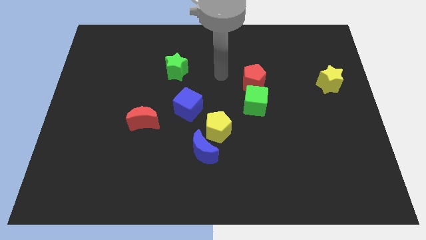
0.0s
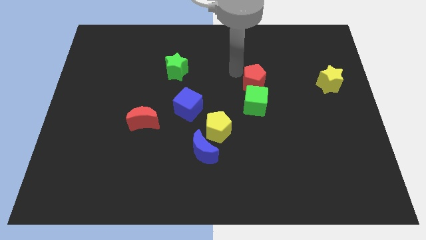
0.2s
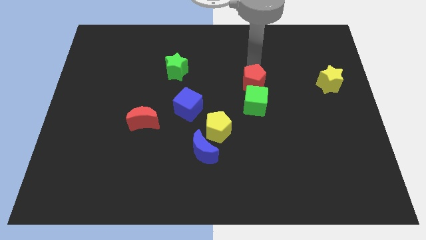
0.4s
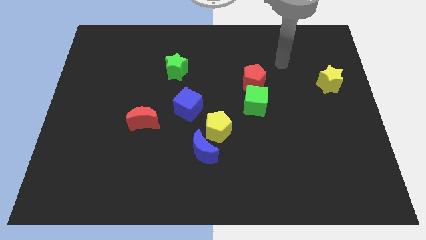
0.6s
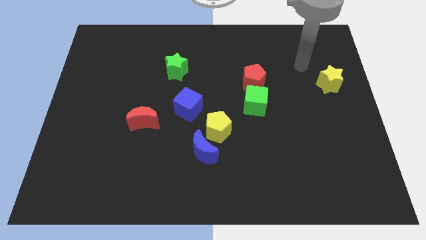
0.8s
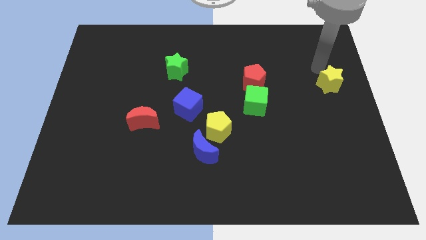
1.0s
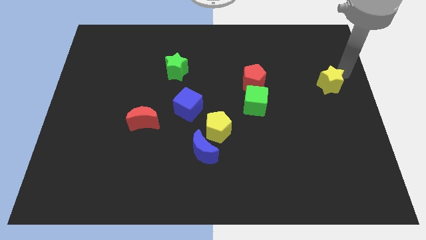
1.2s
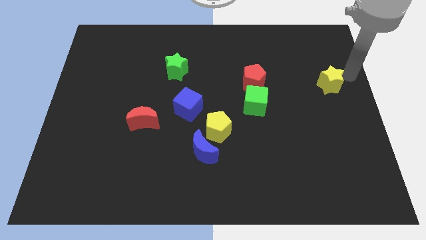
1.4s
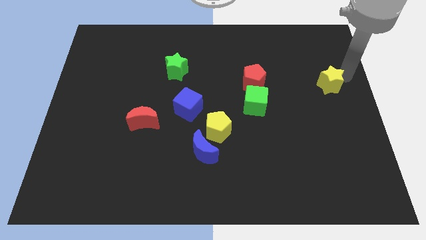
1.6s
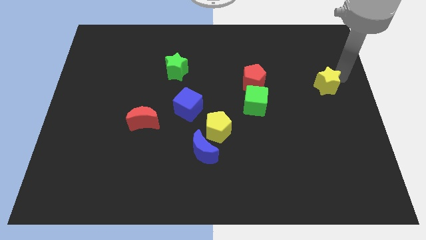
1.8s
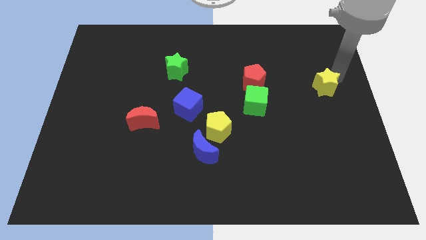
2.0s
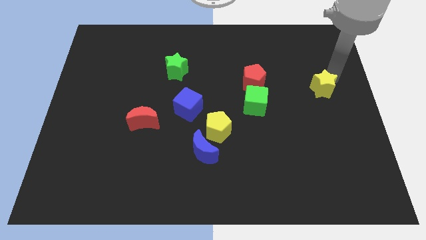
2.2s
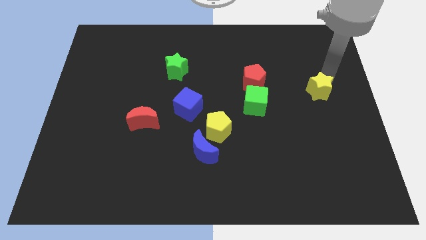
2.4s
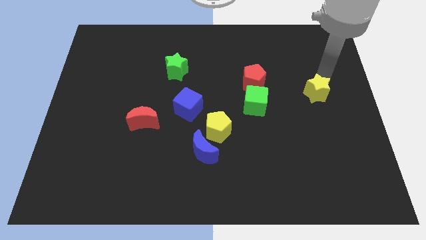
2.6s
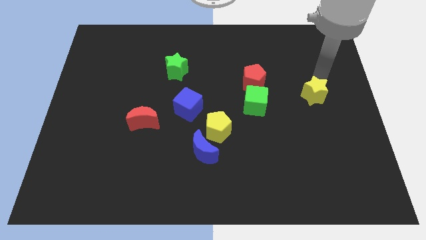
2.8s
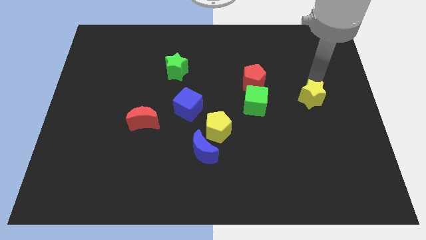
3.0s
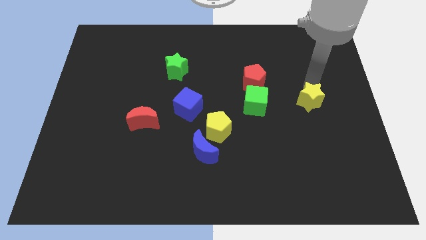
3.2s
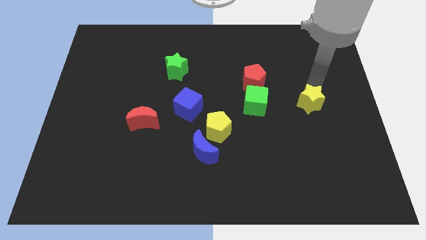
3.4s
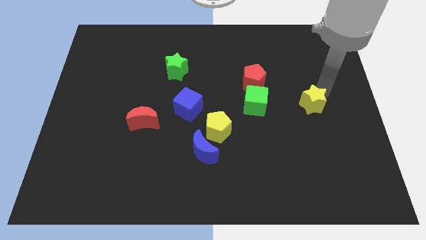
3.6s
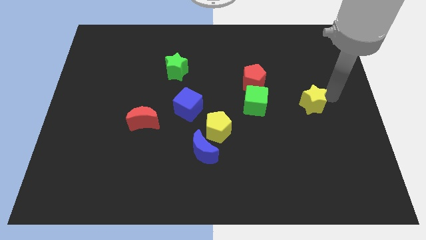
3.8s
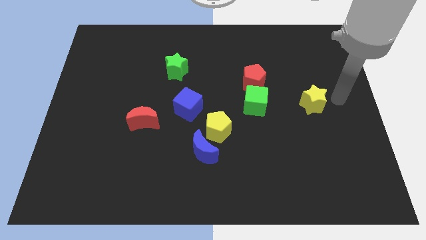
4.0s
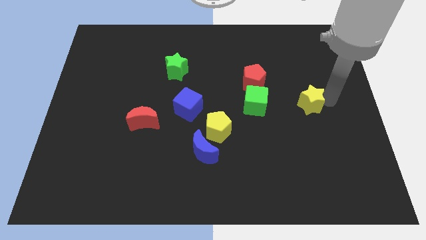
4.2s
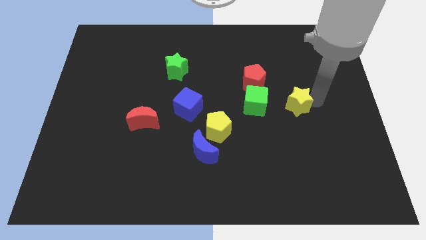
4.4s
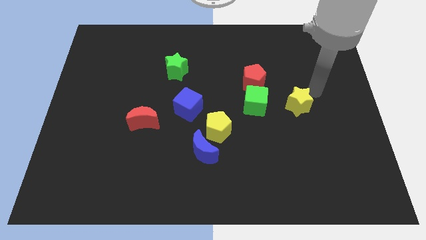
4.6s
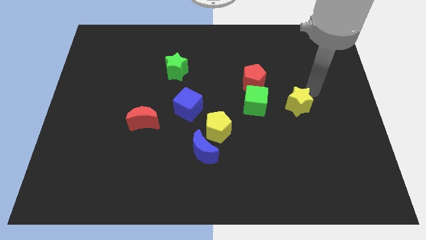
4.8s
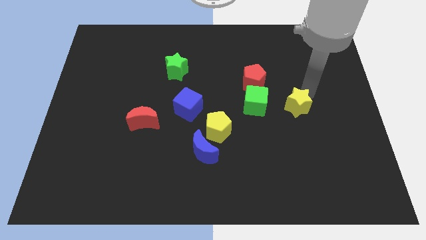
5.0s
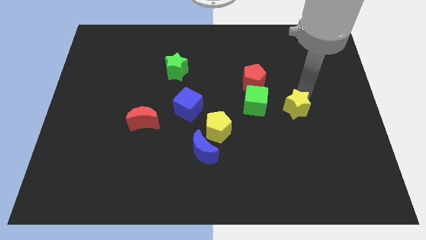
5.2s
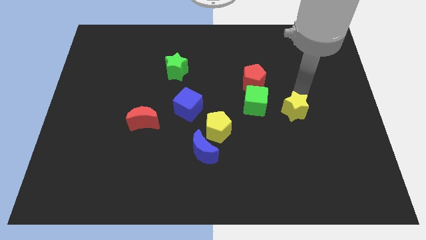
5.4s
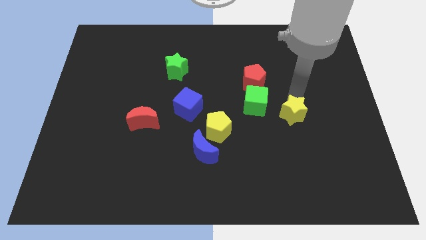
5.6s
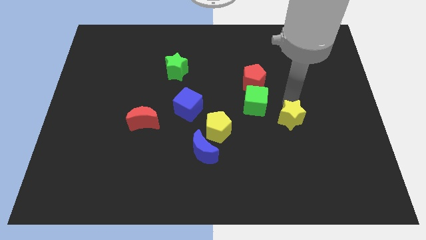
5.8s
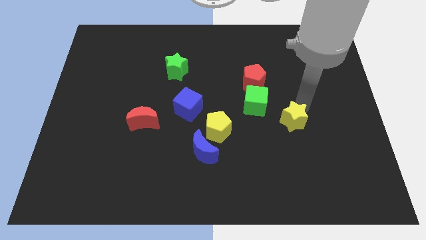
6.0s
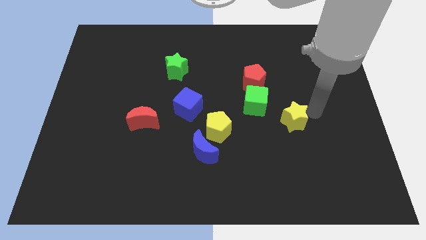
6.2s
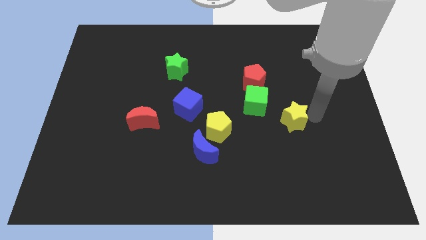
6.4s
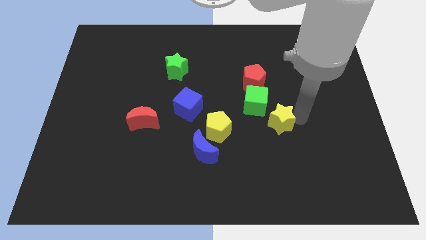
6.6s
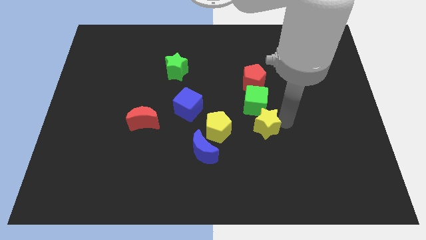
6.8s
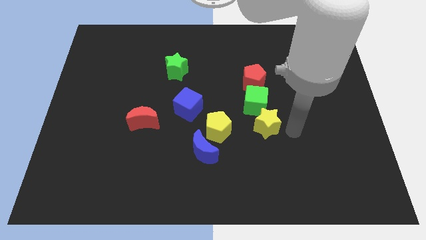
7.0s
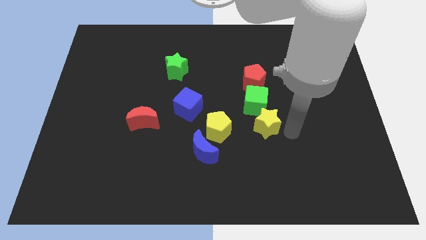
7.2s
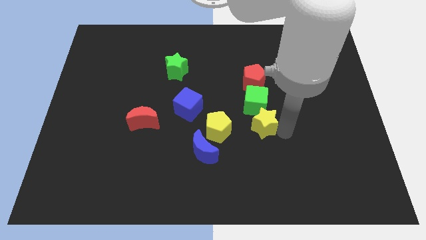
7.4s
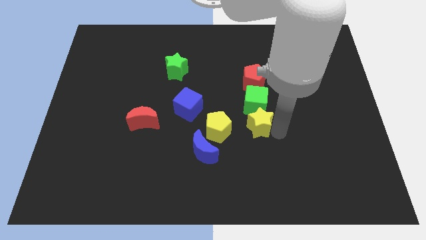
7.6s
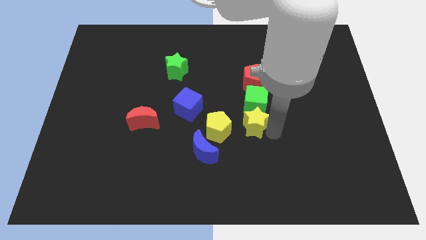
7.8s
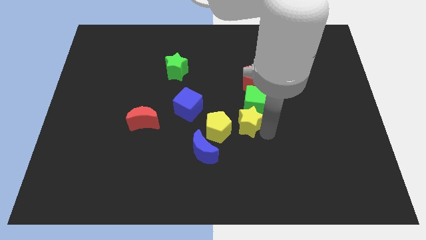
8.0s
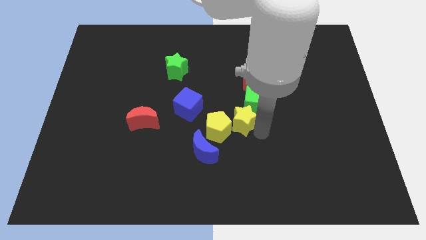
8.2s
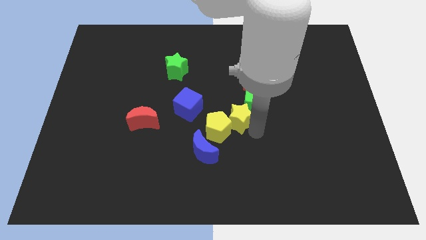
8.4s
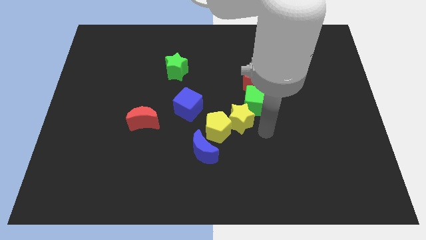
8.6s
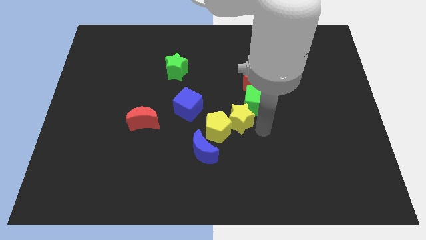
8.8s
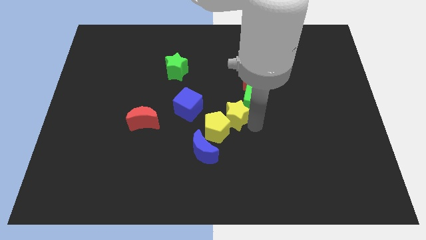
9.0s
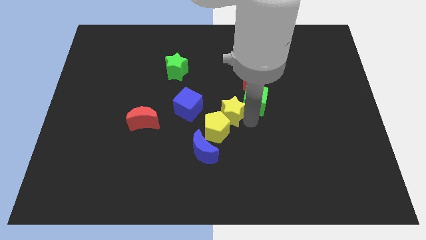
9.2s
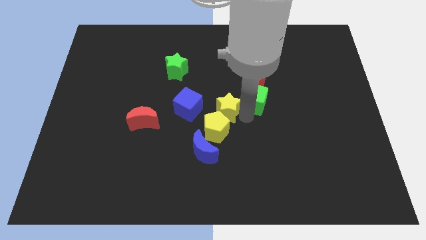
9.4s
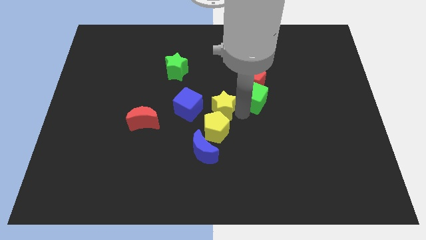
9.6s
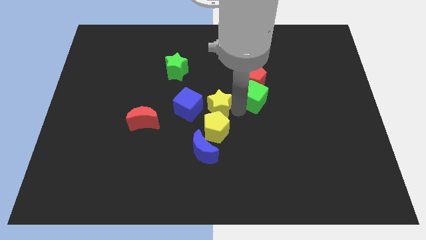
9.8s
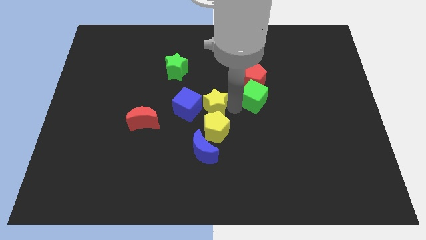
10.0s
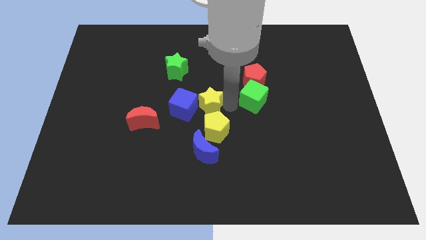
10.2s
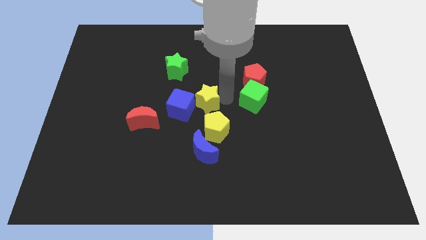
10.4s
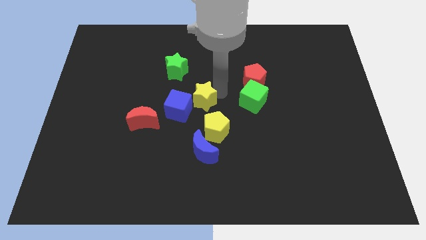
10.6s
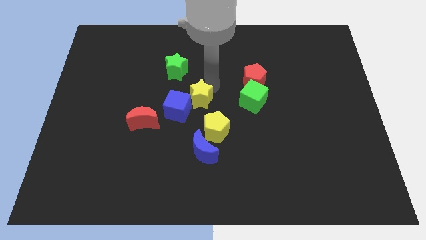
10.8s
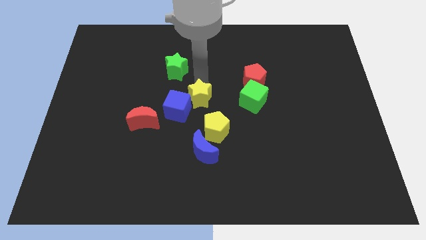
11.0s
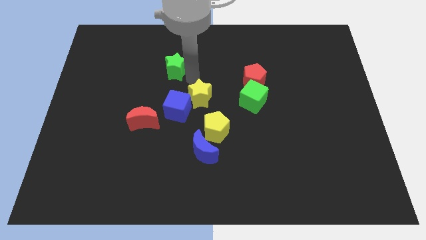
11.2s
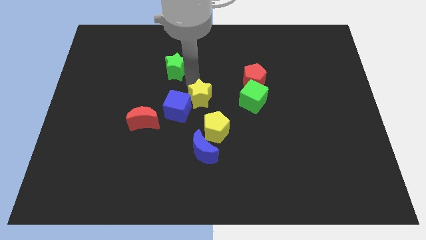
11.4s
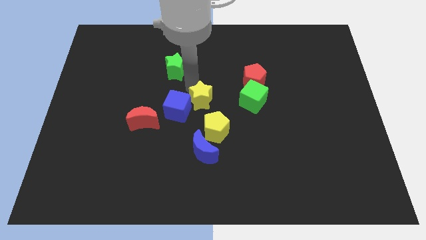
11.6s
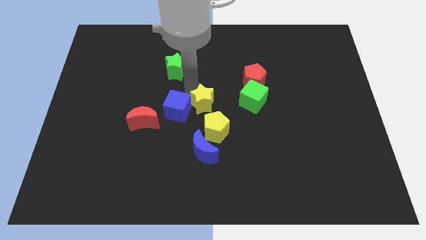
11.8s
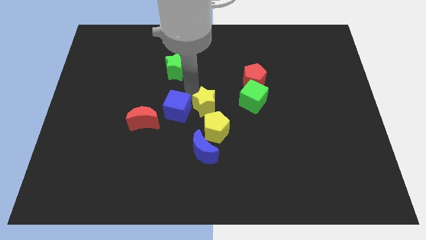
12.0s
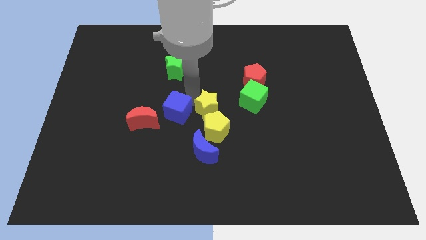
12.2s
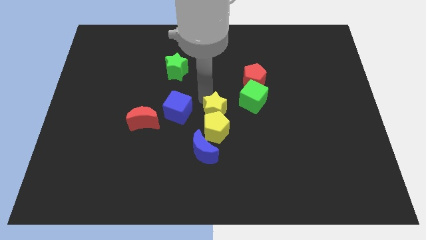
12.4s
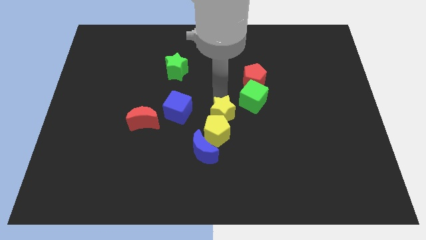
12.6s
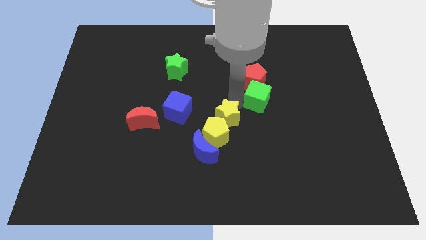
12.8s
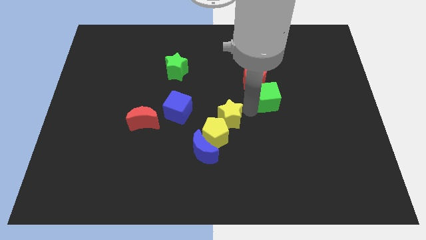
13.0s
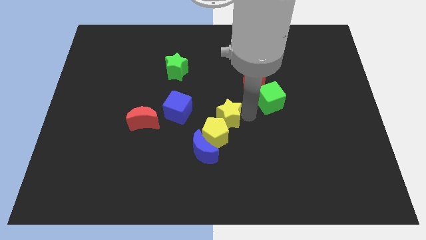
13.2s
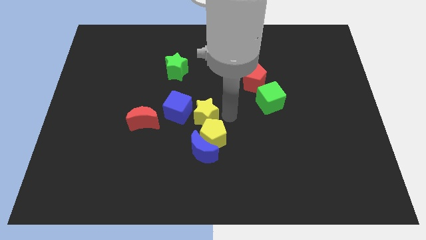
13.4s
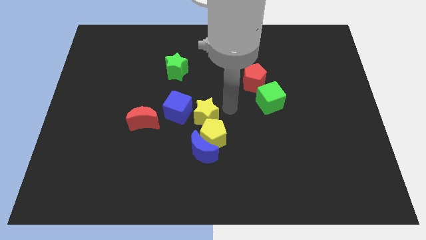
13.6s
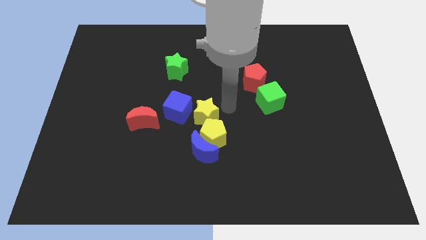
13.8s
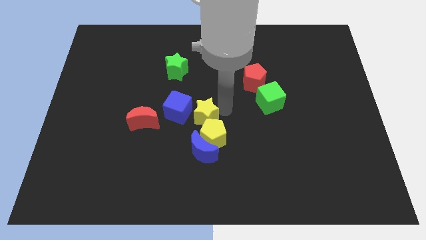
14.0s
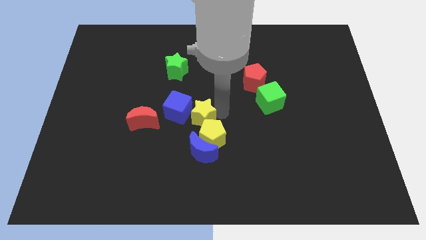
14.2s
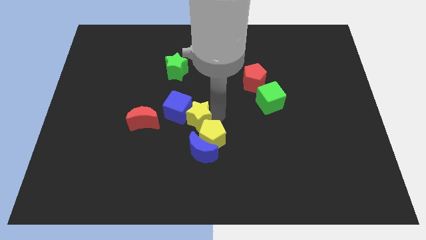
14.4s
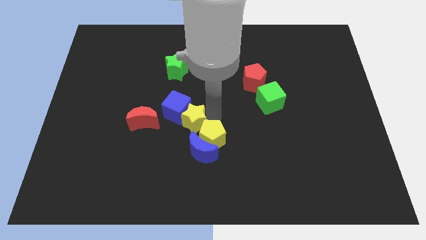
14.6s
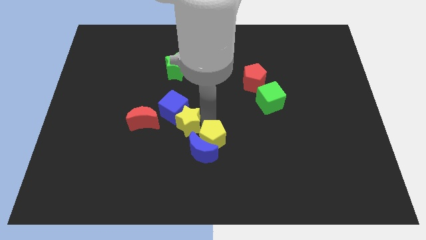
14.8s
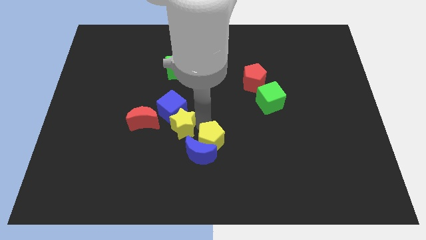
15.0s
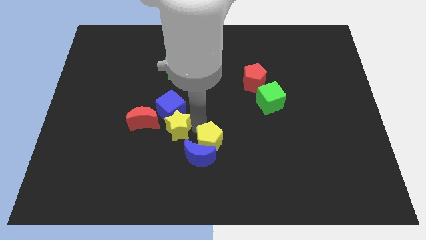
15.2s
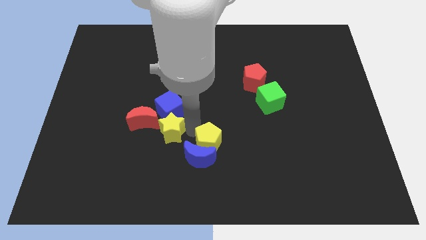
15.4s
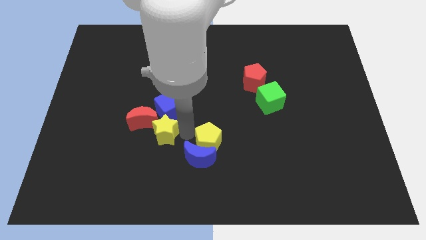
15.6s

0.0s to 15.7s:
slide the yellow star to the red moon
